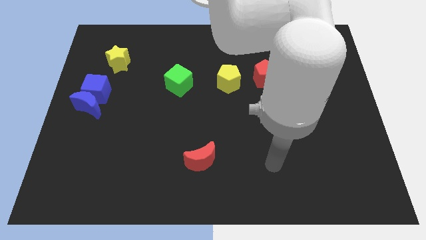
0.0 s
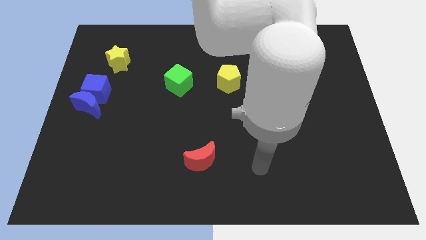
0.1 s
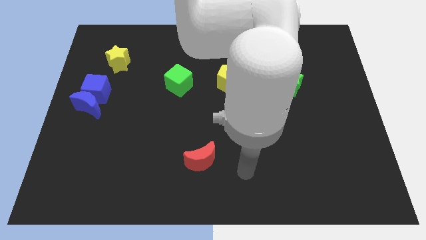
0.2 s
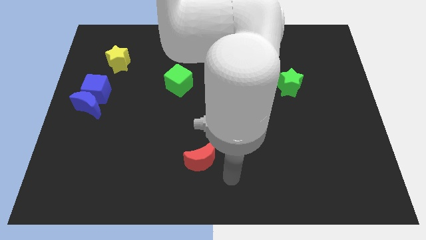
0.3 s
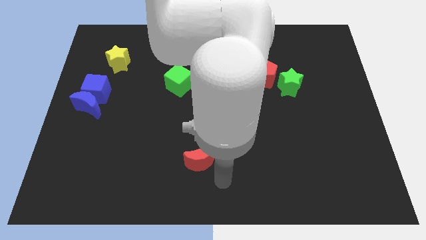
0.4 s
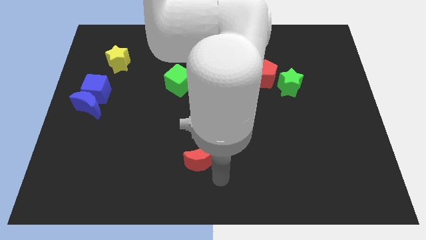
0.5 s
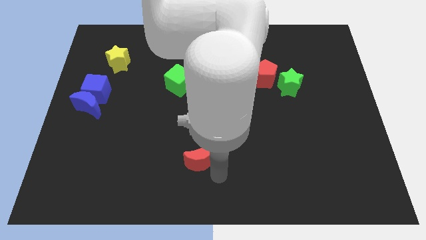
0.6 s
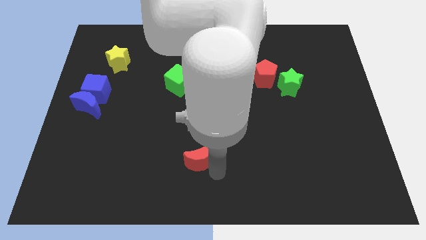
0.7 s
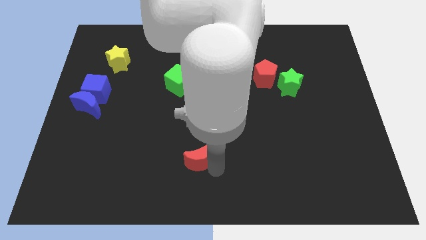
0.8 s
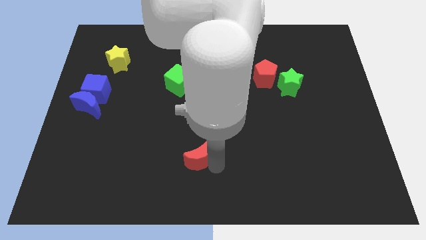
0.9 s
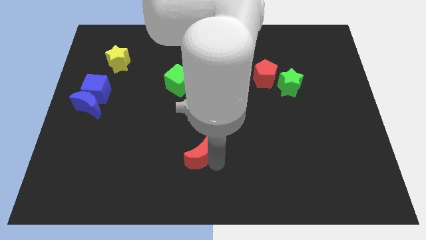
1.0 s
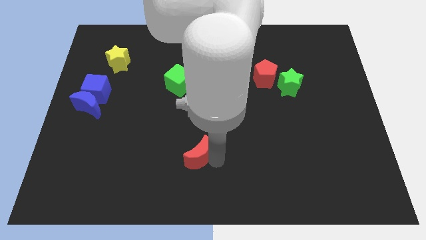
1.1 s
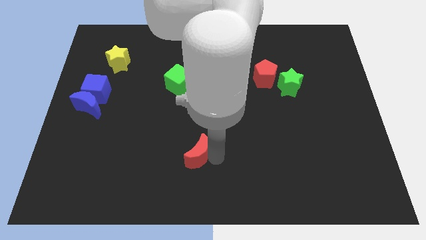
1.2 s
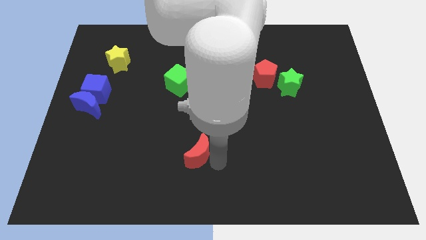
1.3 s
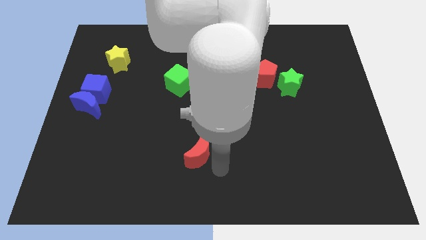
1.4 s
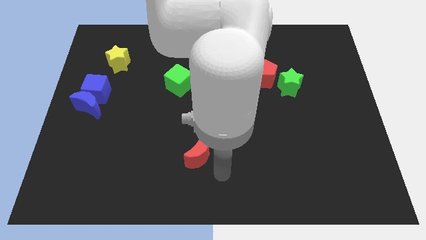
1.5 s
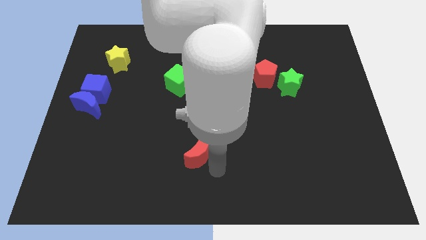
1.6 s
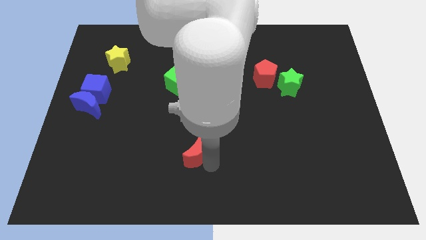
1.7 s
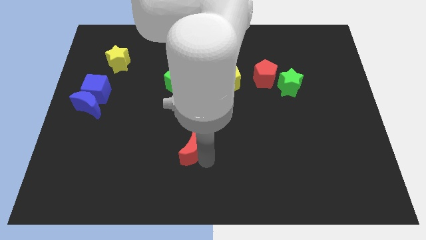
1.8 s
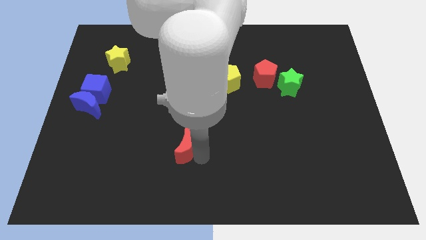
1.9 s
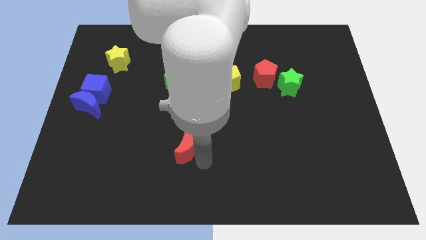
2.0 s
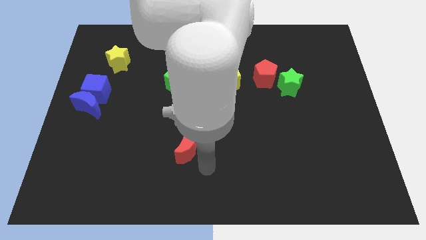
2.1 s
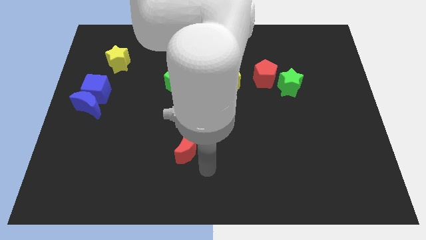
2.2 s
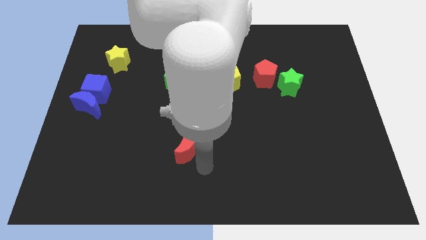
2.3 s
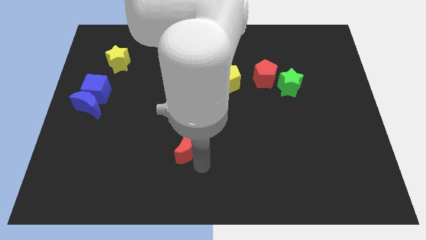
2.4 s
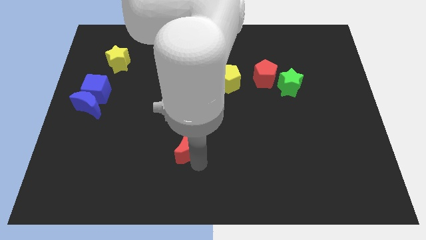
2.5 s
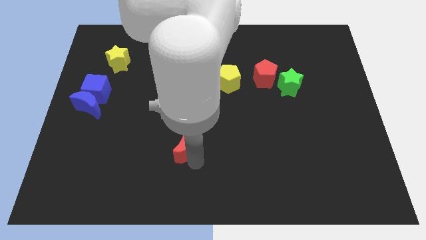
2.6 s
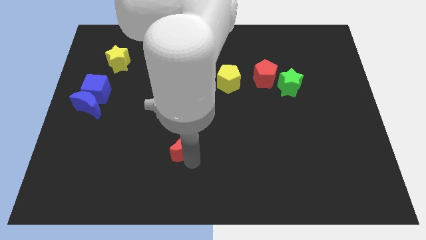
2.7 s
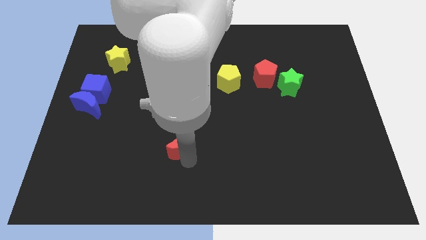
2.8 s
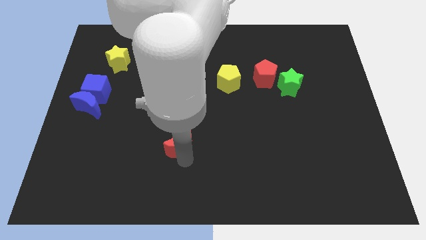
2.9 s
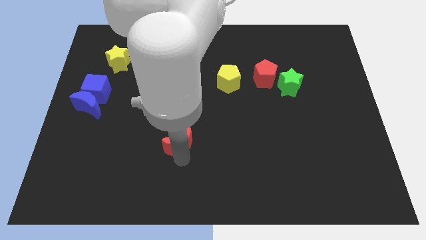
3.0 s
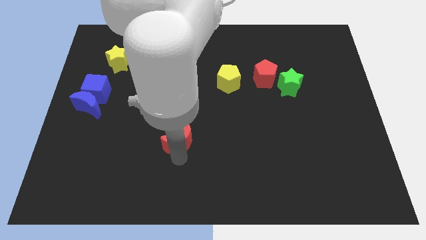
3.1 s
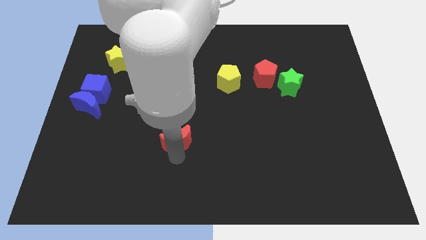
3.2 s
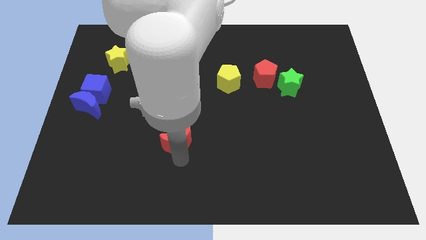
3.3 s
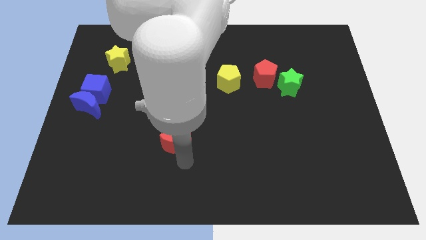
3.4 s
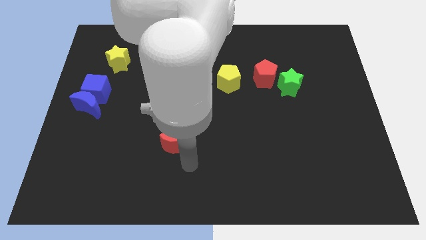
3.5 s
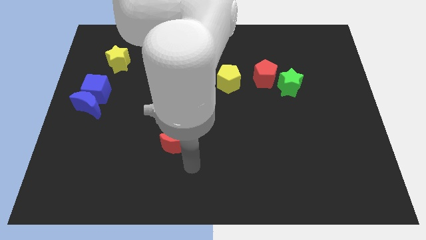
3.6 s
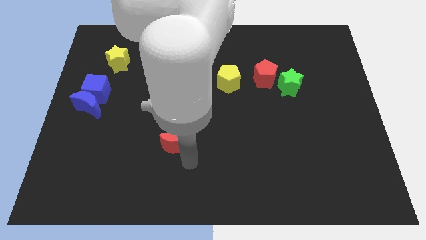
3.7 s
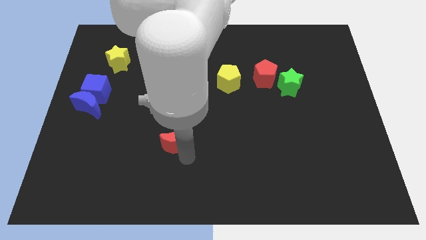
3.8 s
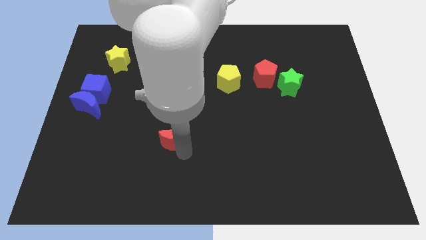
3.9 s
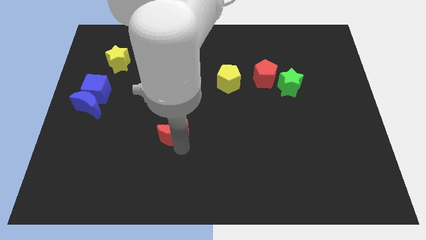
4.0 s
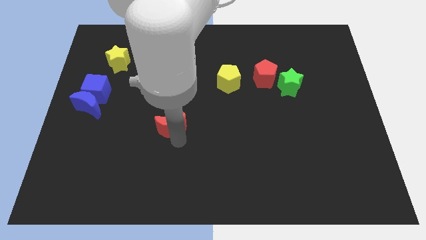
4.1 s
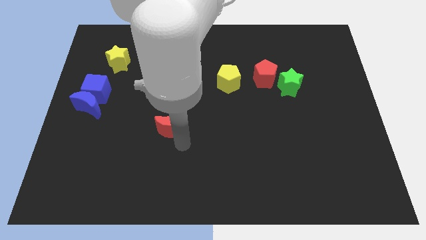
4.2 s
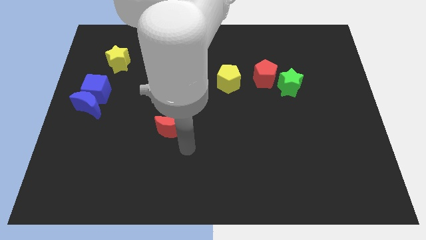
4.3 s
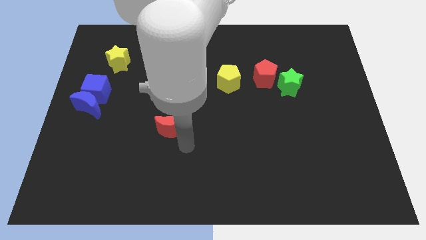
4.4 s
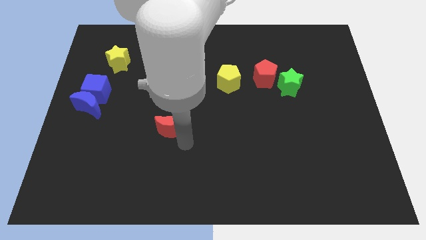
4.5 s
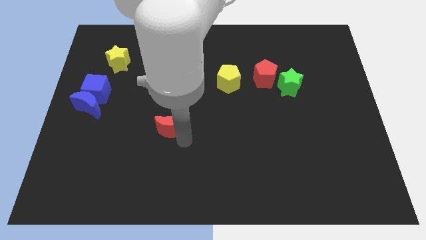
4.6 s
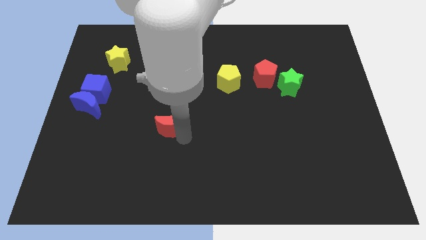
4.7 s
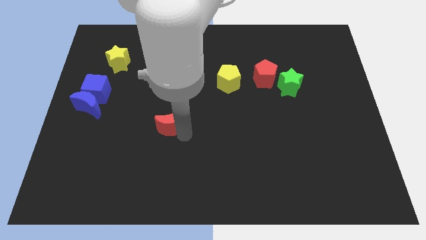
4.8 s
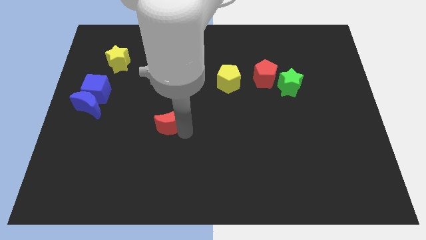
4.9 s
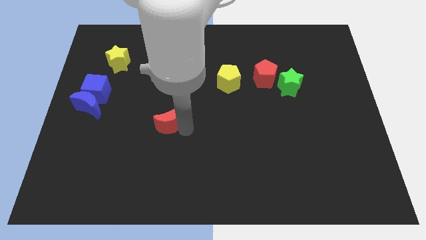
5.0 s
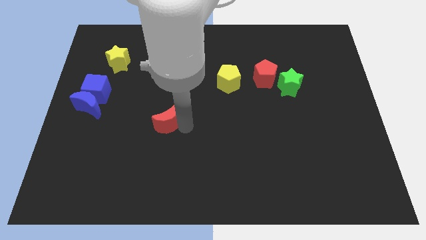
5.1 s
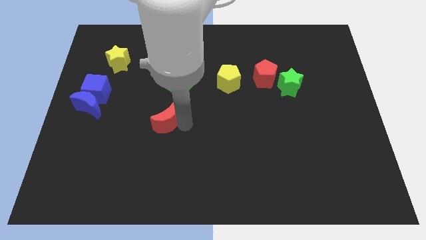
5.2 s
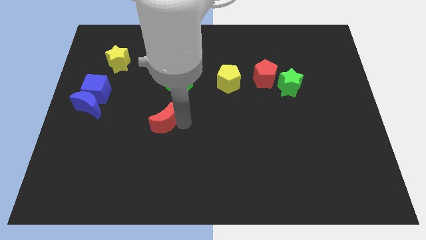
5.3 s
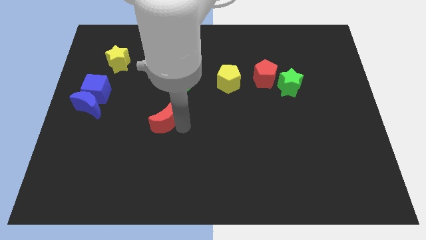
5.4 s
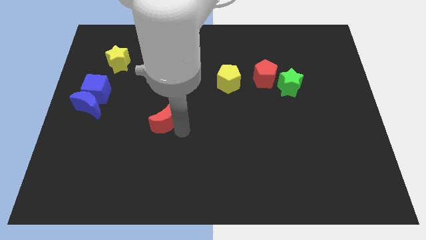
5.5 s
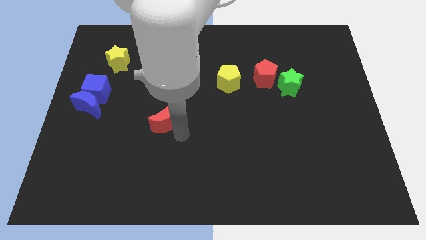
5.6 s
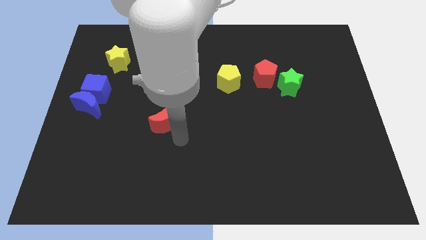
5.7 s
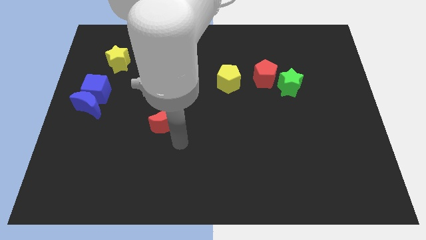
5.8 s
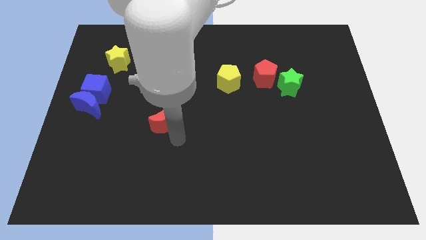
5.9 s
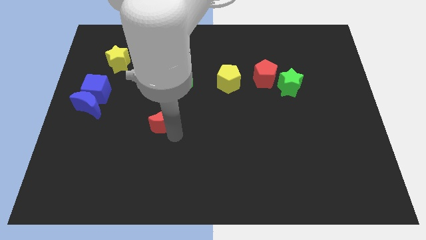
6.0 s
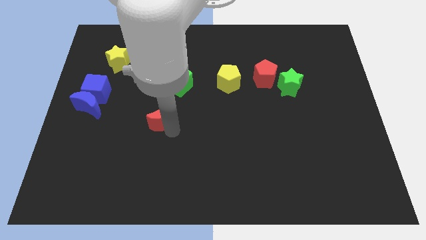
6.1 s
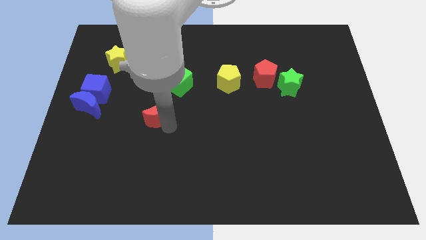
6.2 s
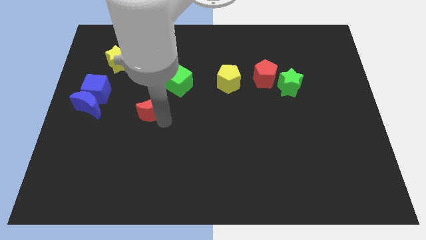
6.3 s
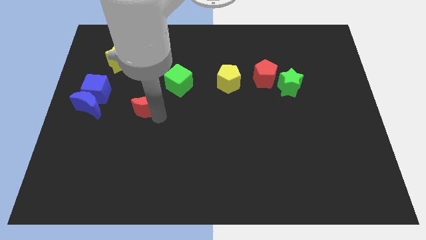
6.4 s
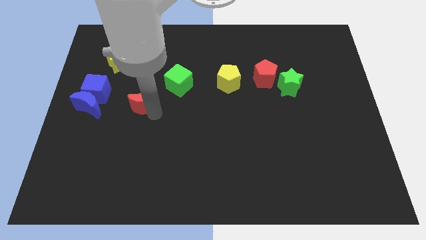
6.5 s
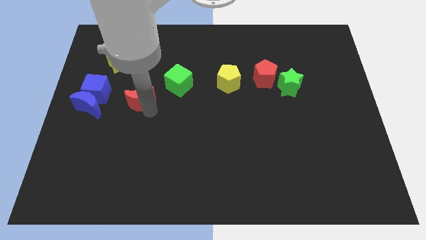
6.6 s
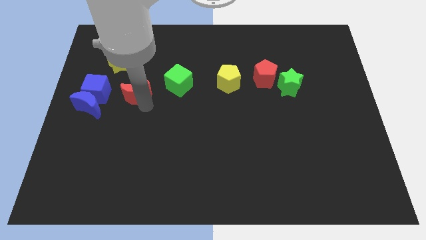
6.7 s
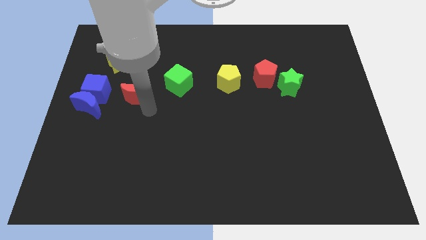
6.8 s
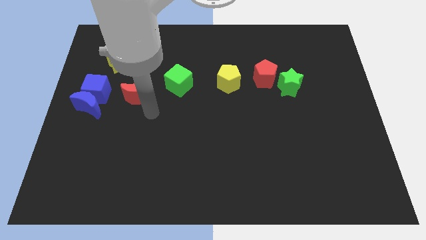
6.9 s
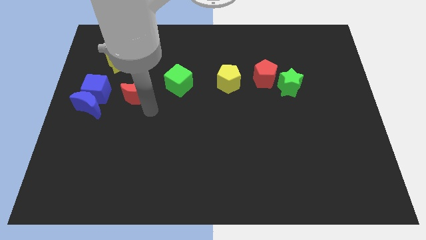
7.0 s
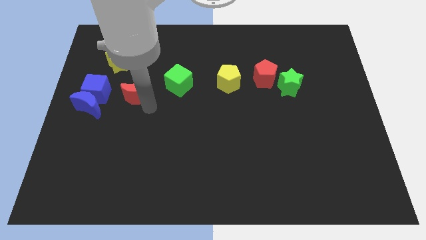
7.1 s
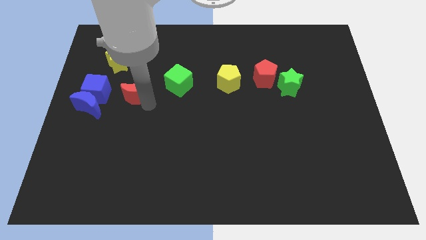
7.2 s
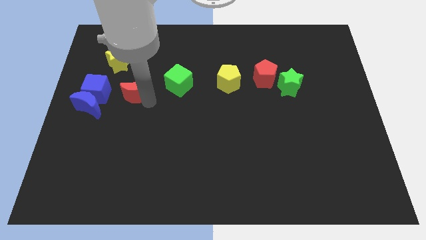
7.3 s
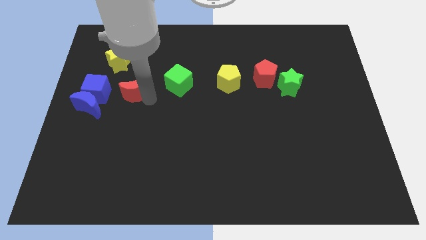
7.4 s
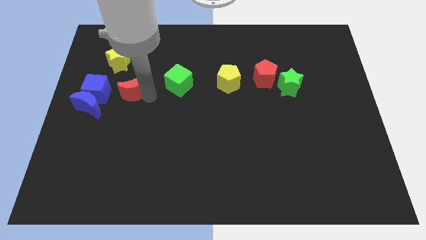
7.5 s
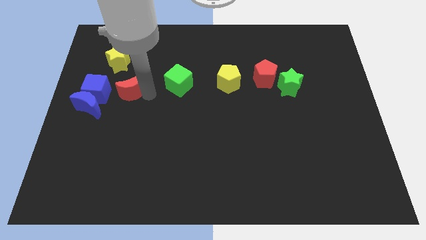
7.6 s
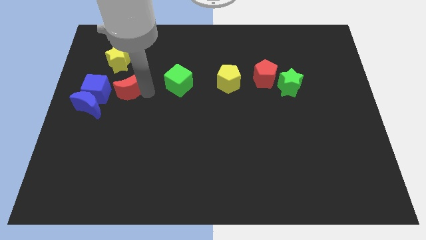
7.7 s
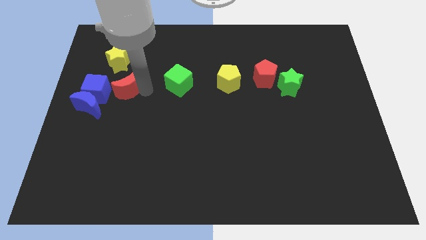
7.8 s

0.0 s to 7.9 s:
move the red moon diagonally up and to the right of the blue cube

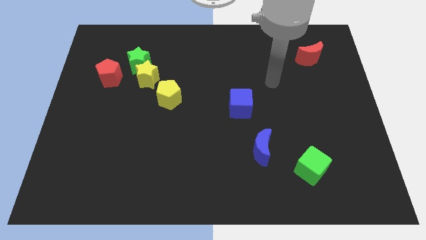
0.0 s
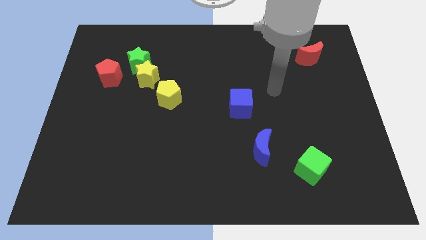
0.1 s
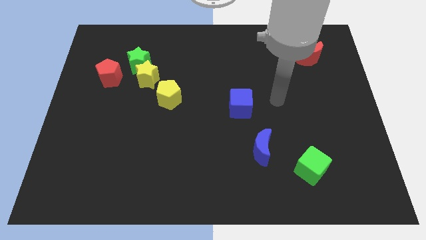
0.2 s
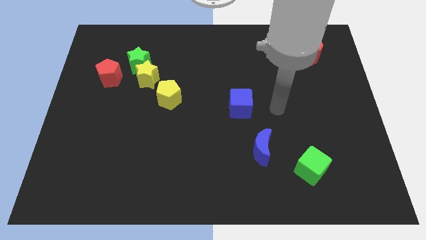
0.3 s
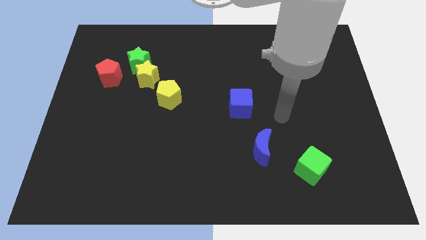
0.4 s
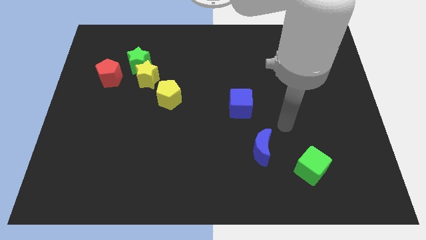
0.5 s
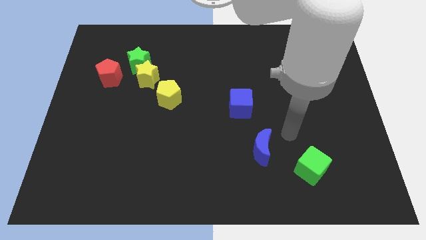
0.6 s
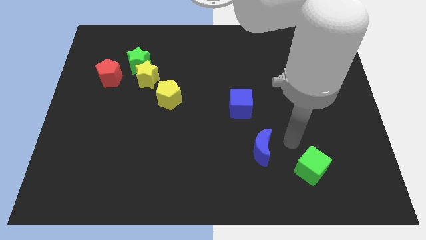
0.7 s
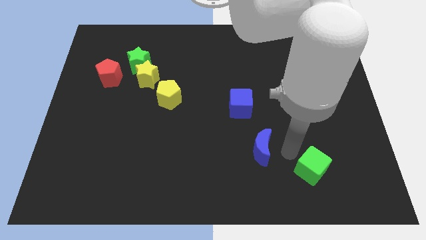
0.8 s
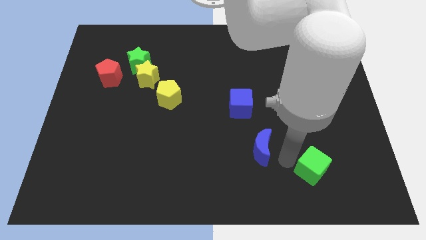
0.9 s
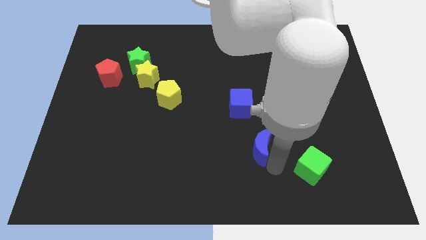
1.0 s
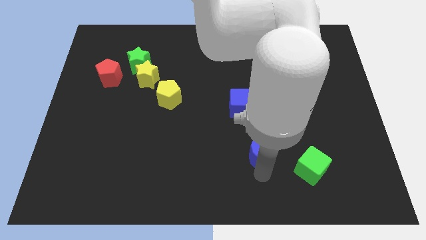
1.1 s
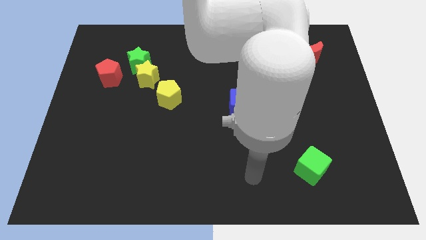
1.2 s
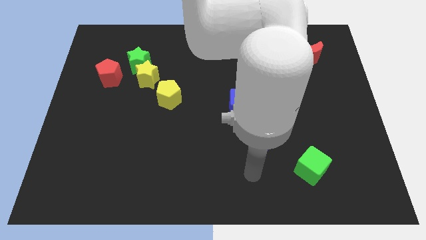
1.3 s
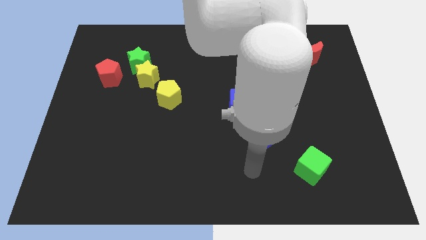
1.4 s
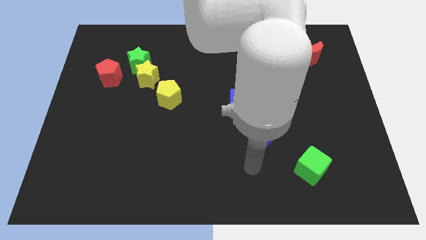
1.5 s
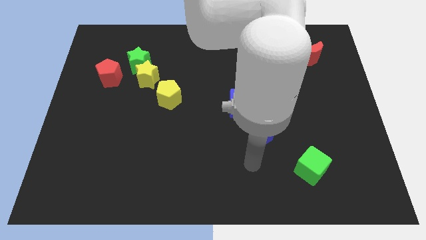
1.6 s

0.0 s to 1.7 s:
slide the blue moon to the bottom right of the blue cube
